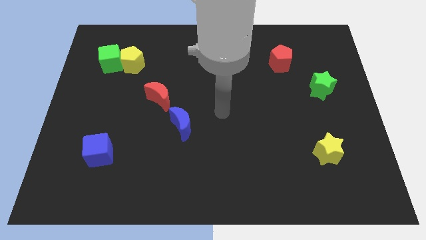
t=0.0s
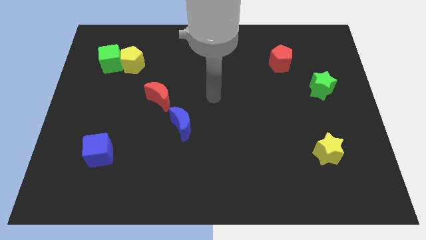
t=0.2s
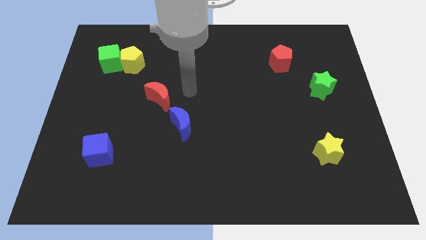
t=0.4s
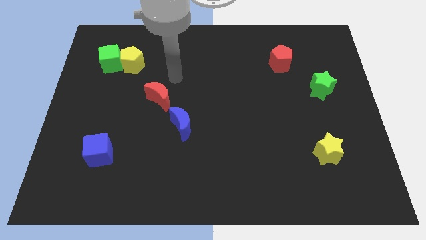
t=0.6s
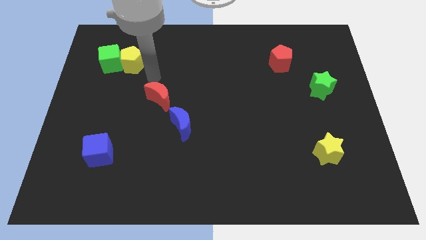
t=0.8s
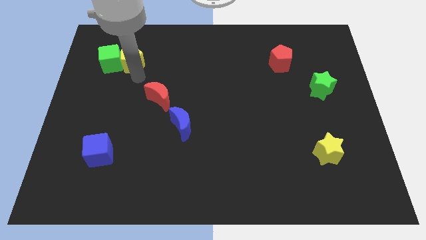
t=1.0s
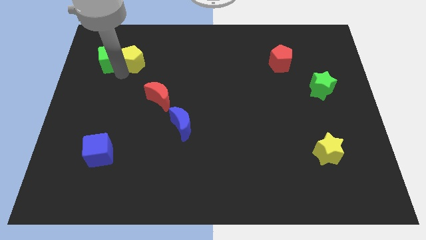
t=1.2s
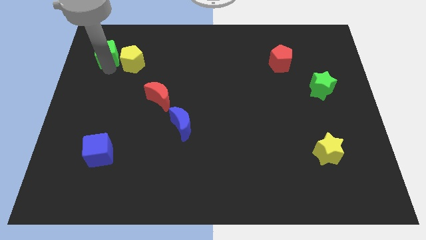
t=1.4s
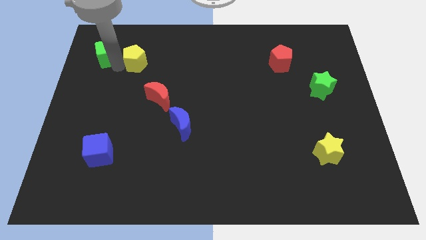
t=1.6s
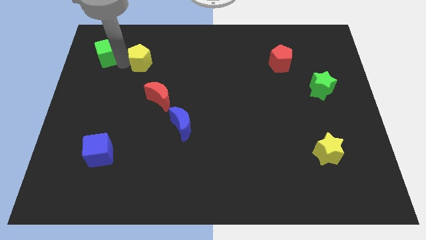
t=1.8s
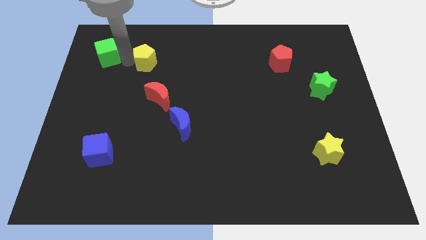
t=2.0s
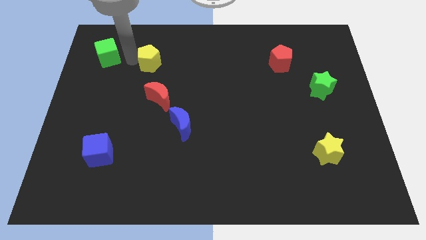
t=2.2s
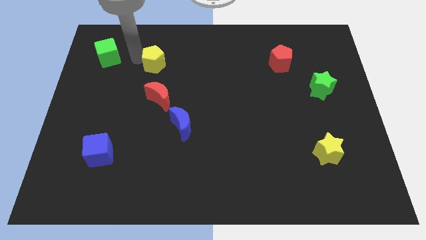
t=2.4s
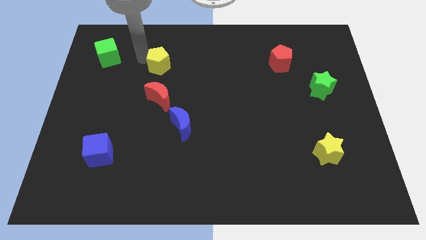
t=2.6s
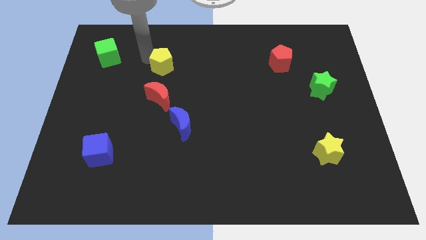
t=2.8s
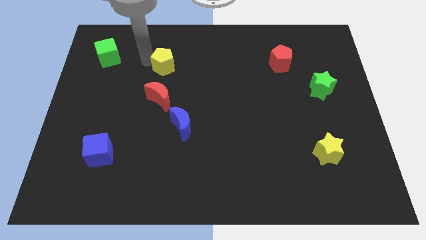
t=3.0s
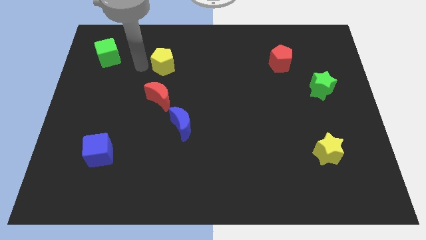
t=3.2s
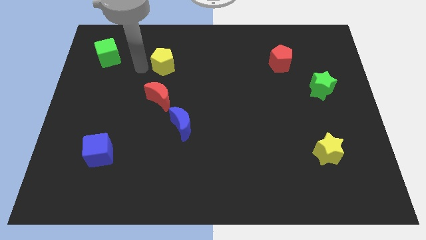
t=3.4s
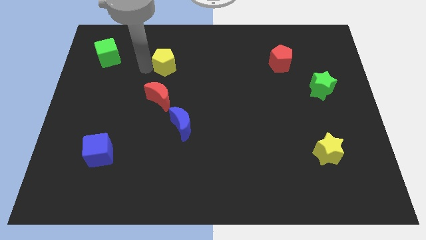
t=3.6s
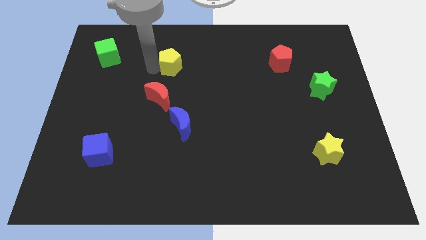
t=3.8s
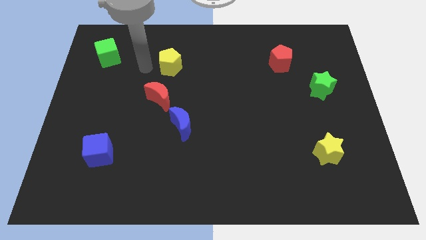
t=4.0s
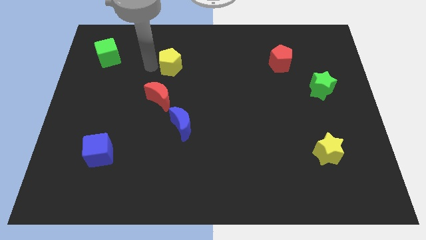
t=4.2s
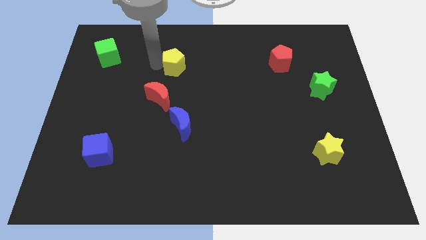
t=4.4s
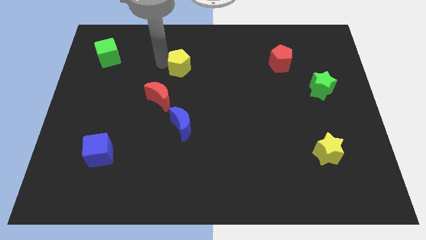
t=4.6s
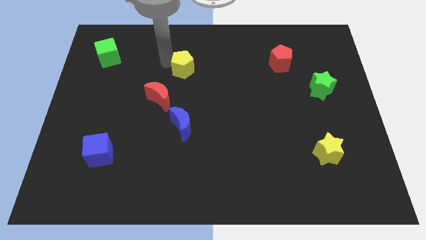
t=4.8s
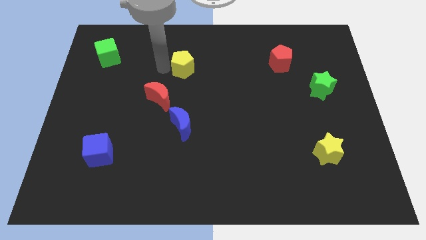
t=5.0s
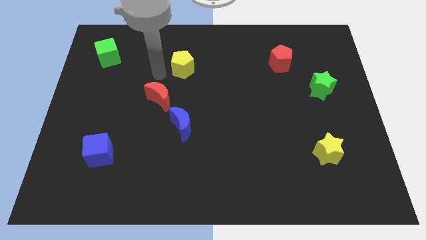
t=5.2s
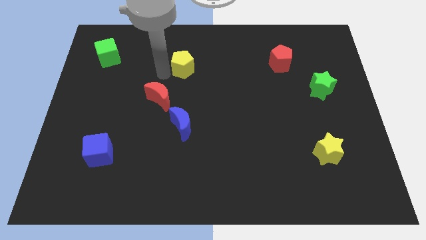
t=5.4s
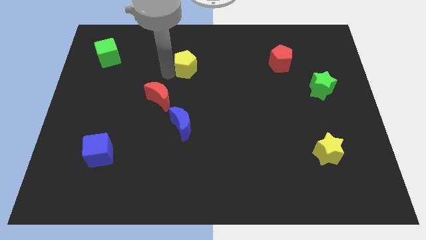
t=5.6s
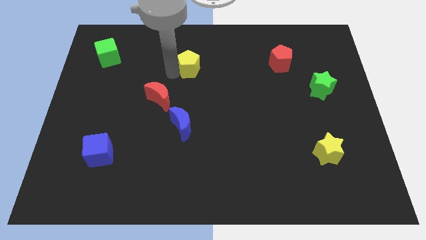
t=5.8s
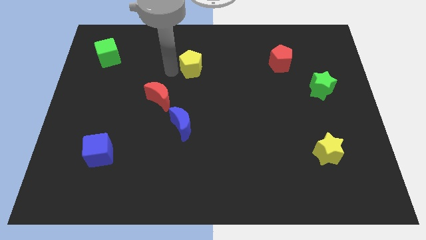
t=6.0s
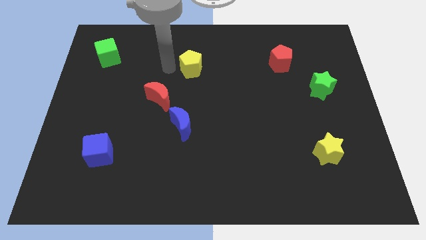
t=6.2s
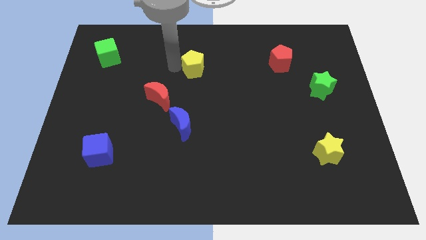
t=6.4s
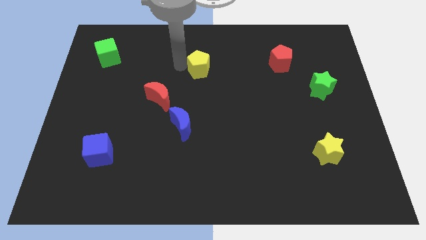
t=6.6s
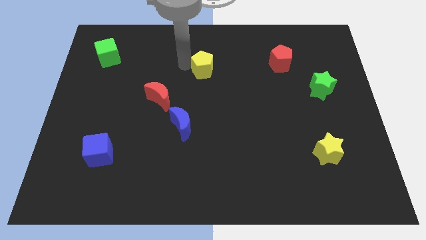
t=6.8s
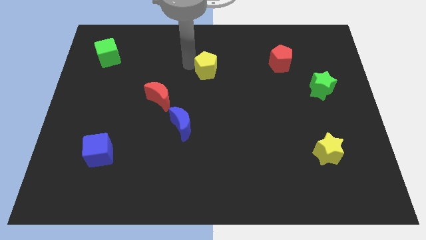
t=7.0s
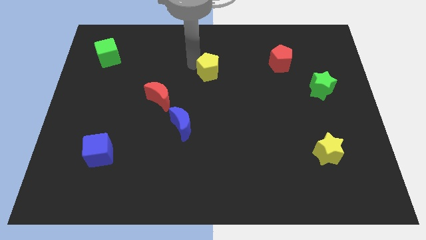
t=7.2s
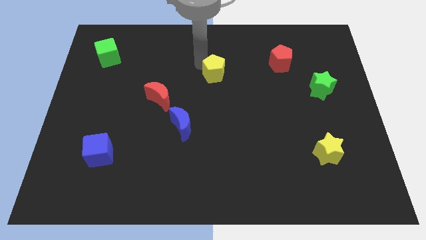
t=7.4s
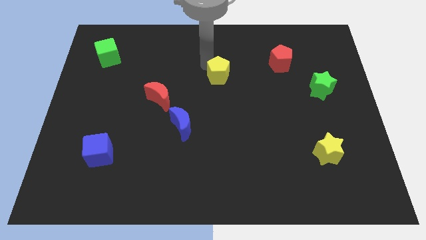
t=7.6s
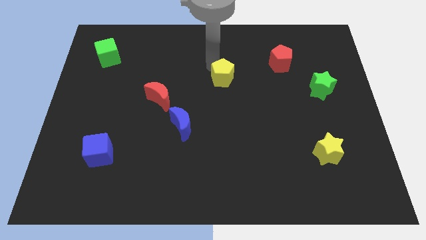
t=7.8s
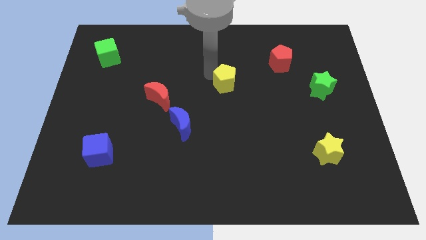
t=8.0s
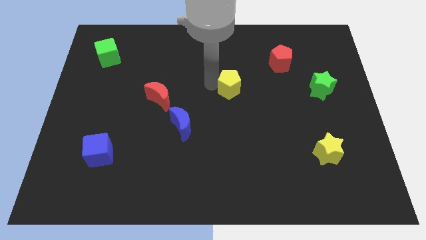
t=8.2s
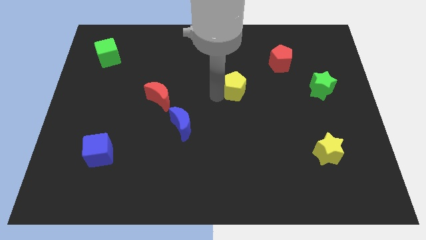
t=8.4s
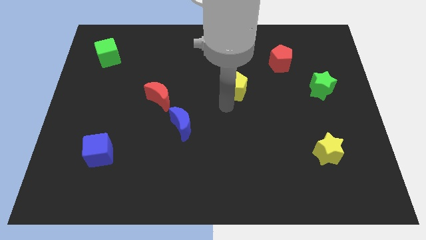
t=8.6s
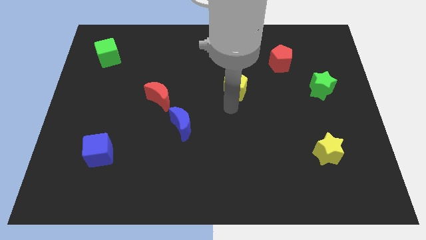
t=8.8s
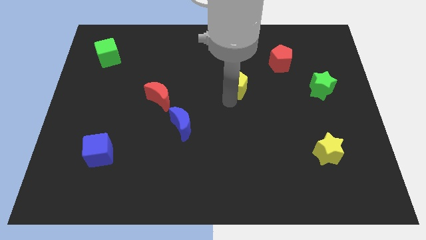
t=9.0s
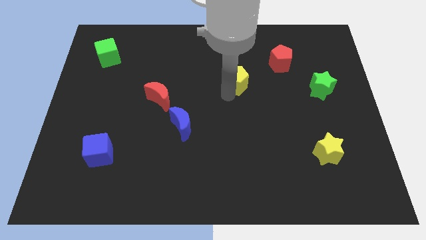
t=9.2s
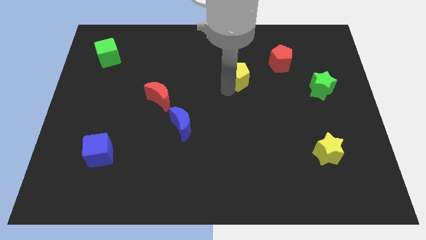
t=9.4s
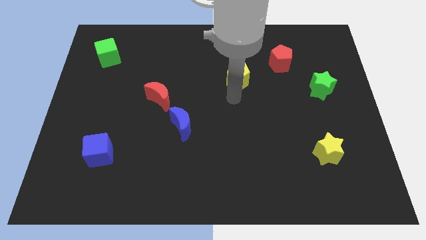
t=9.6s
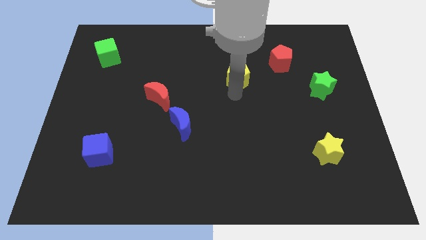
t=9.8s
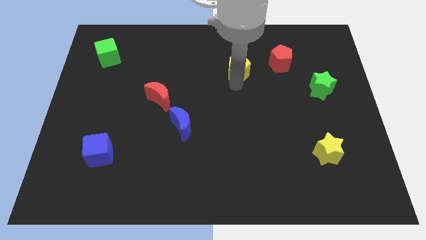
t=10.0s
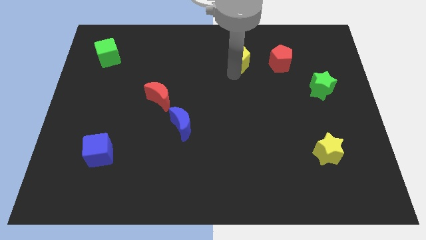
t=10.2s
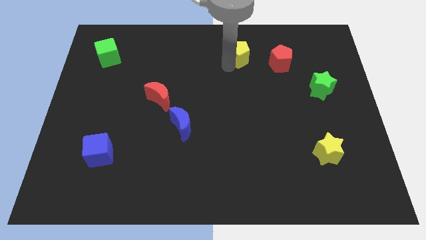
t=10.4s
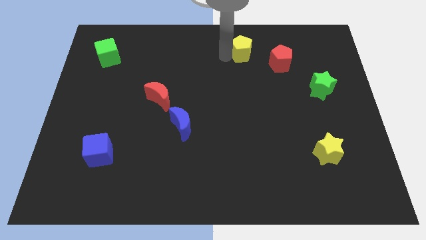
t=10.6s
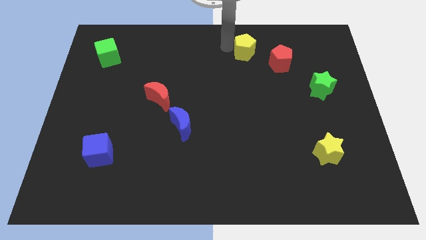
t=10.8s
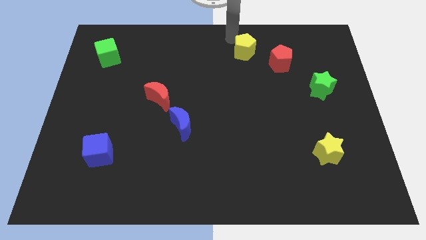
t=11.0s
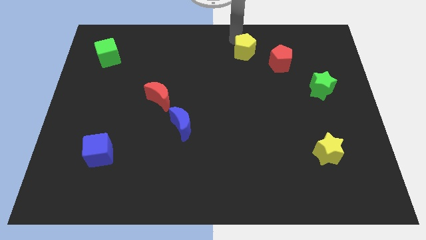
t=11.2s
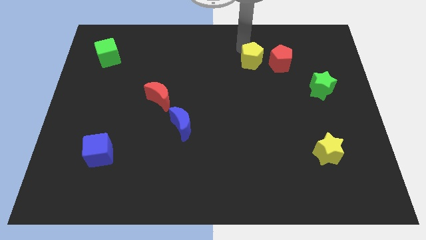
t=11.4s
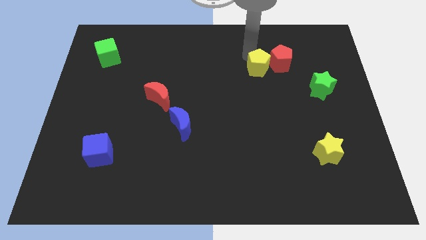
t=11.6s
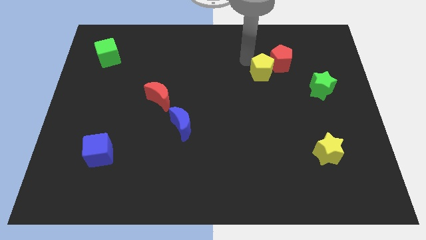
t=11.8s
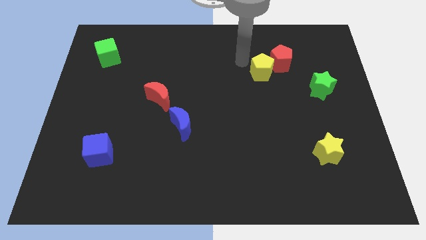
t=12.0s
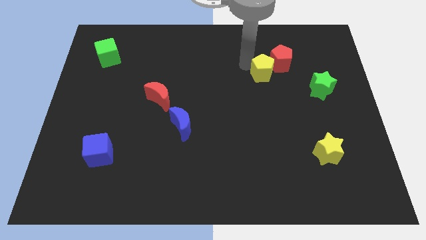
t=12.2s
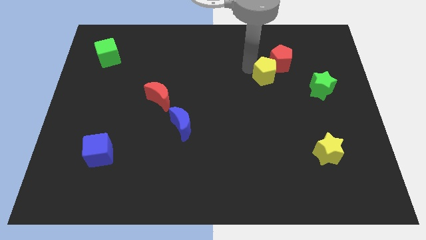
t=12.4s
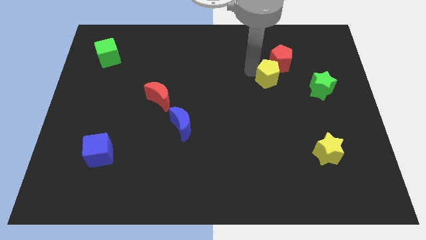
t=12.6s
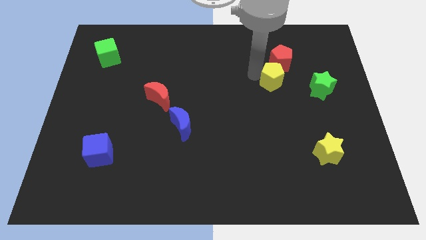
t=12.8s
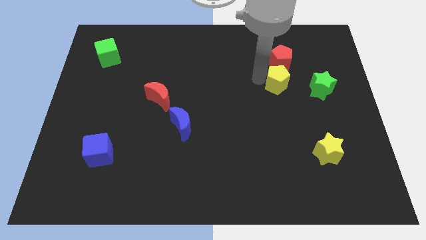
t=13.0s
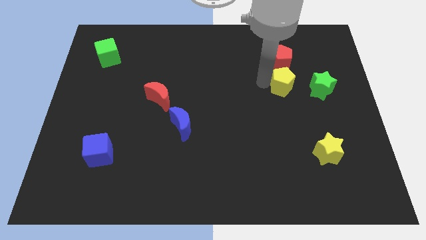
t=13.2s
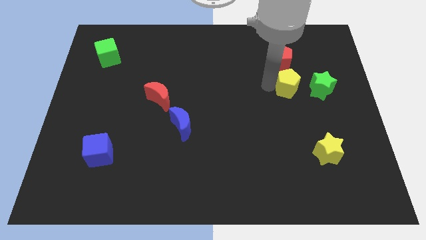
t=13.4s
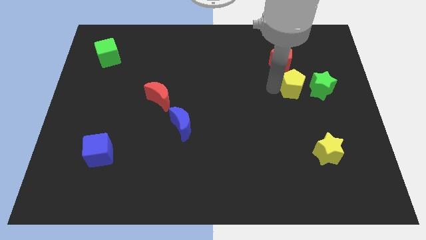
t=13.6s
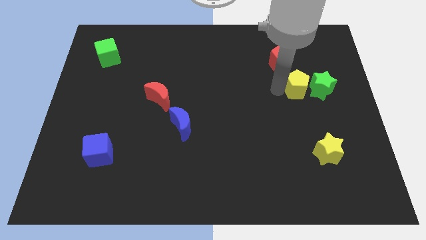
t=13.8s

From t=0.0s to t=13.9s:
move the yellow pentagon to the green star
